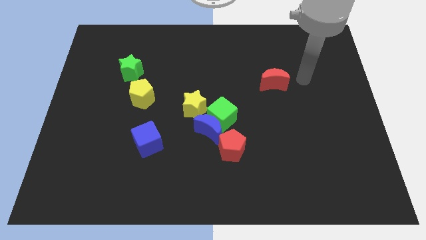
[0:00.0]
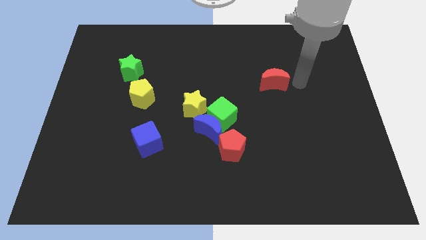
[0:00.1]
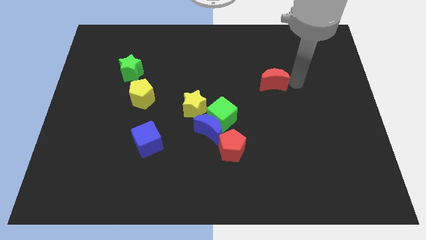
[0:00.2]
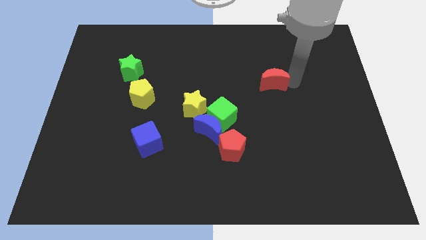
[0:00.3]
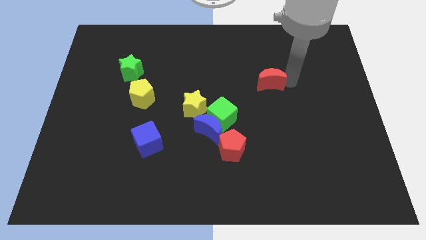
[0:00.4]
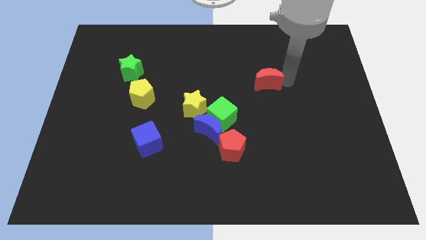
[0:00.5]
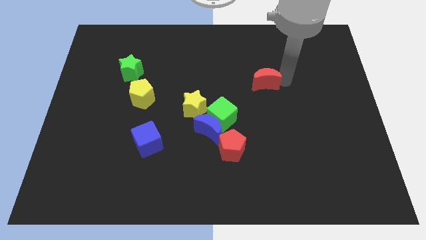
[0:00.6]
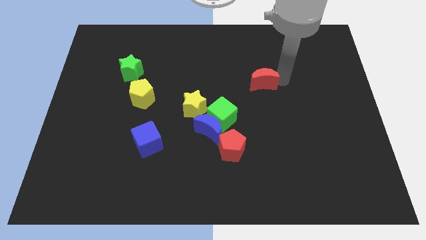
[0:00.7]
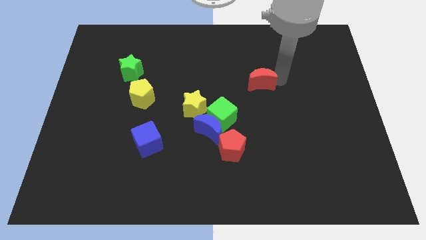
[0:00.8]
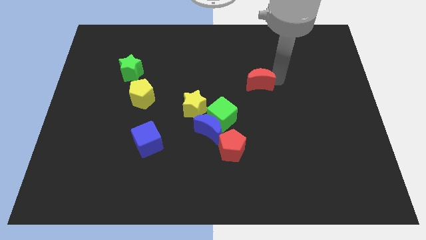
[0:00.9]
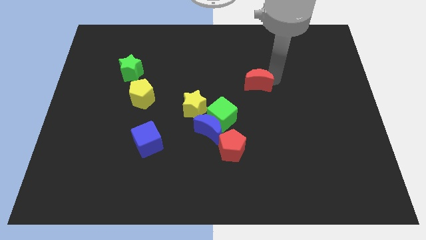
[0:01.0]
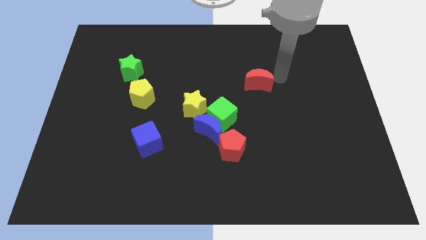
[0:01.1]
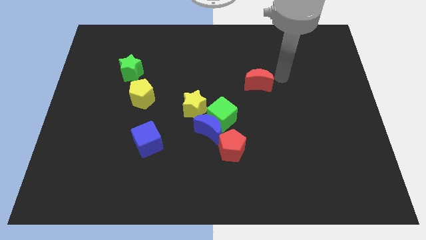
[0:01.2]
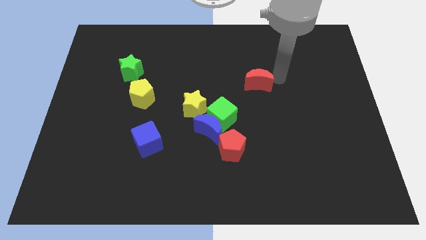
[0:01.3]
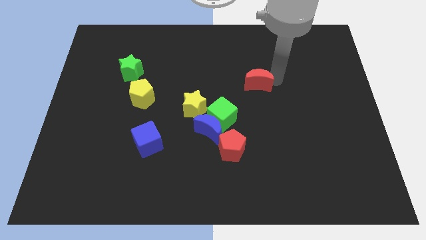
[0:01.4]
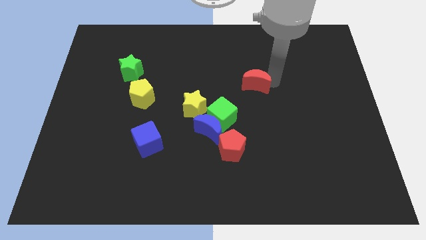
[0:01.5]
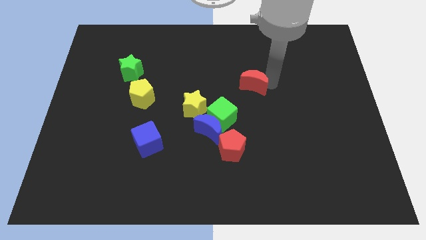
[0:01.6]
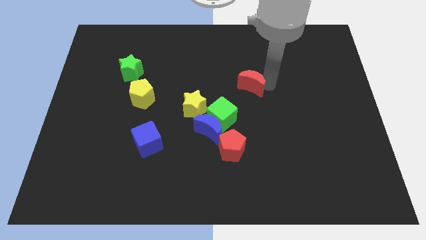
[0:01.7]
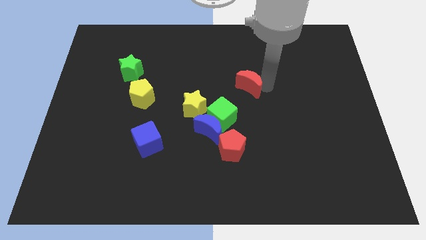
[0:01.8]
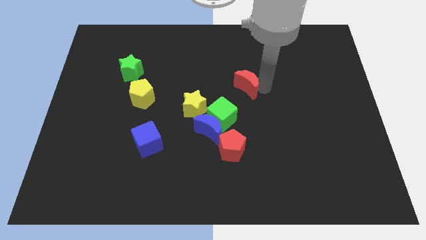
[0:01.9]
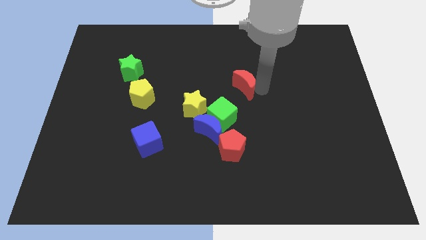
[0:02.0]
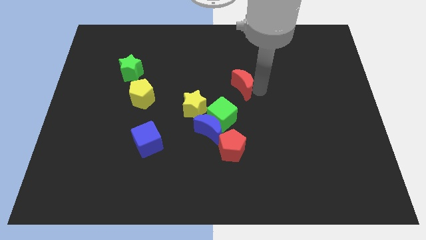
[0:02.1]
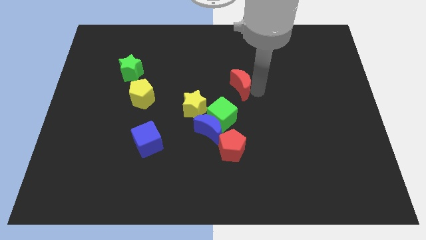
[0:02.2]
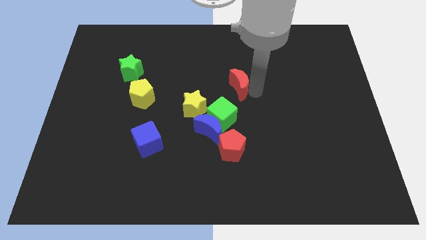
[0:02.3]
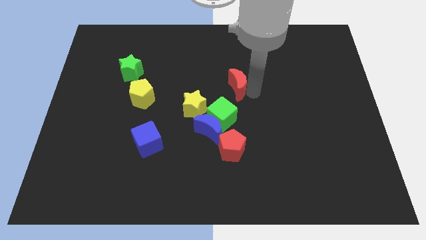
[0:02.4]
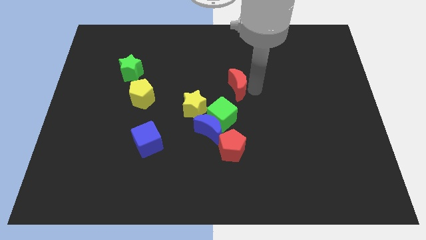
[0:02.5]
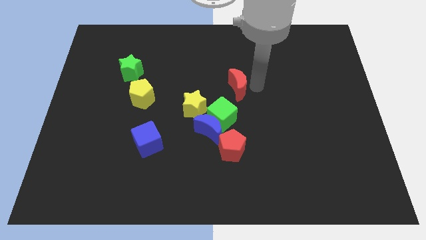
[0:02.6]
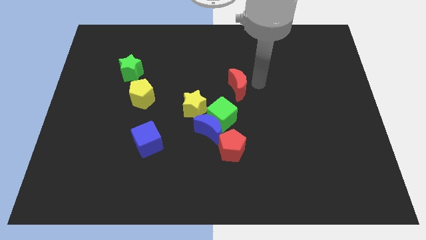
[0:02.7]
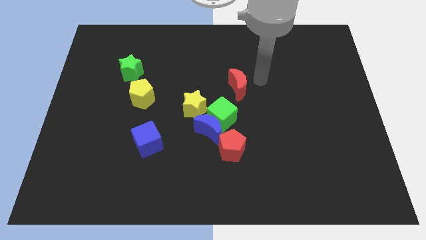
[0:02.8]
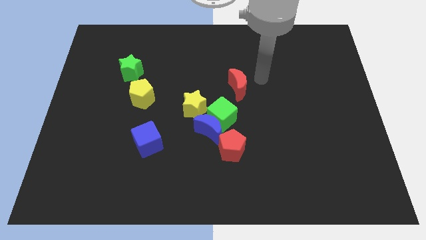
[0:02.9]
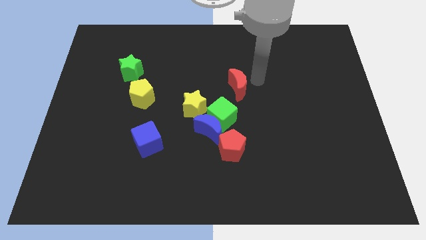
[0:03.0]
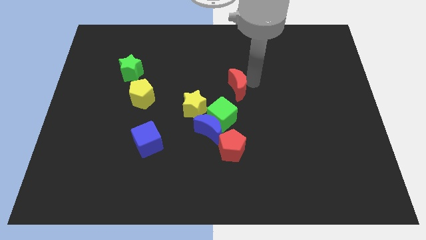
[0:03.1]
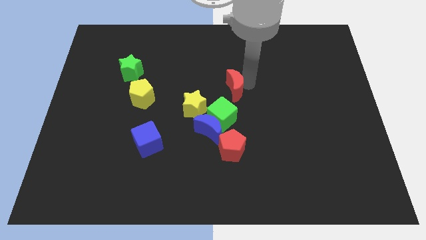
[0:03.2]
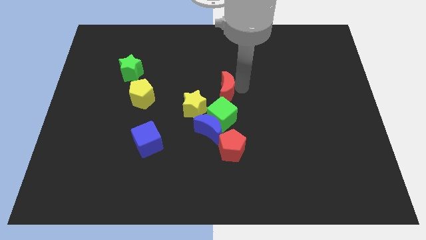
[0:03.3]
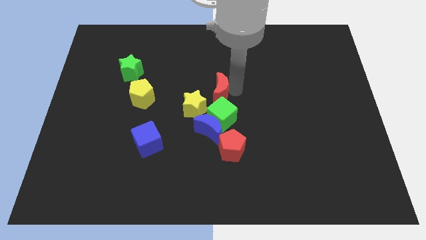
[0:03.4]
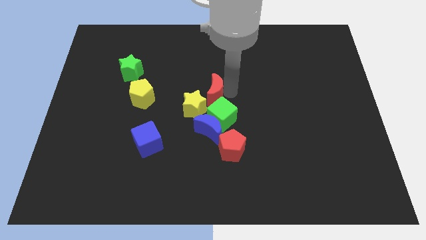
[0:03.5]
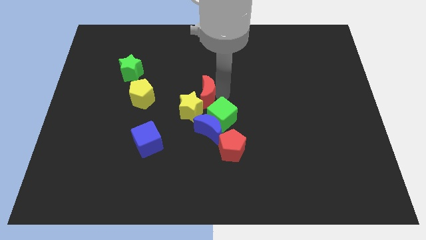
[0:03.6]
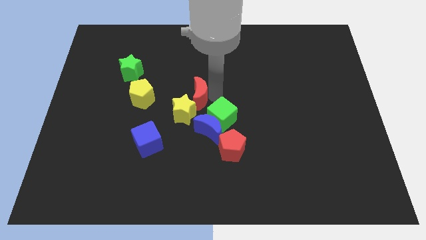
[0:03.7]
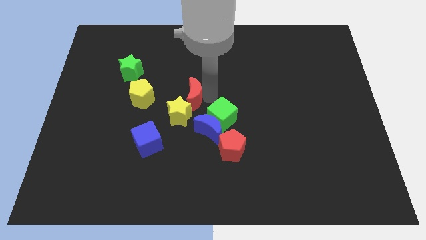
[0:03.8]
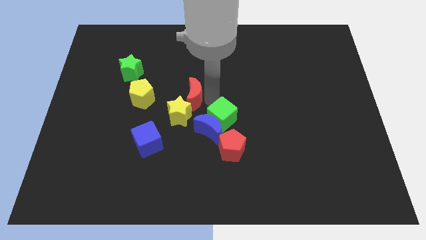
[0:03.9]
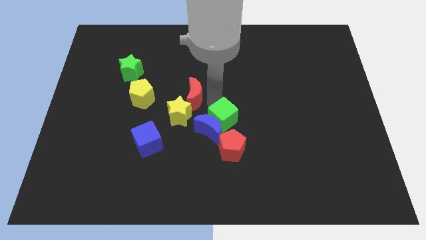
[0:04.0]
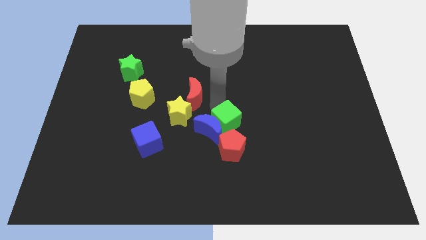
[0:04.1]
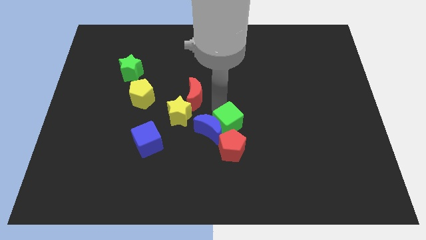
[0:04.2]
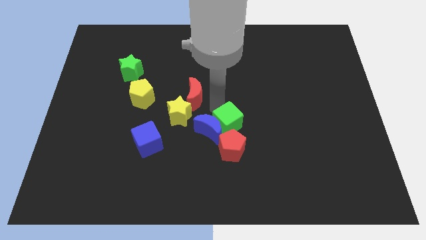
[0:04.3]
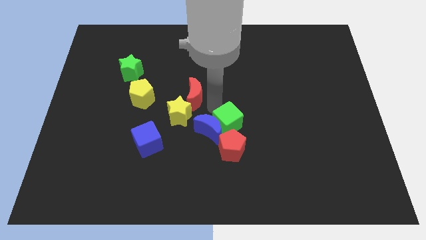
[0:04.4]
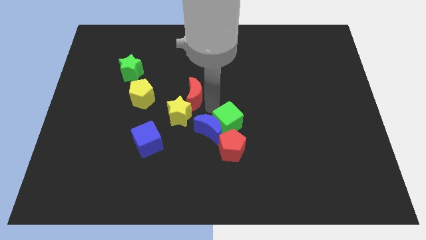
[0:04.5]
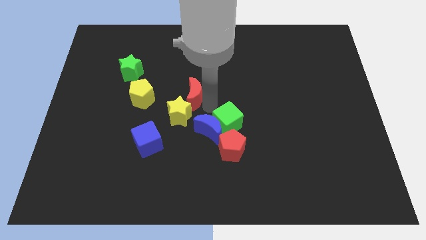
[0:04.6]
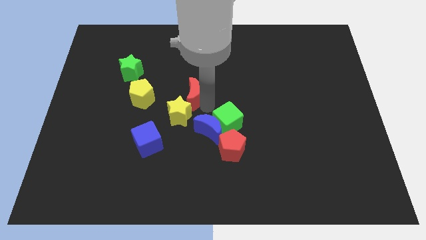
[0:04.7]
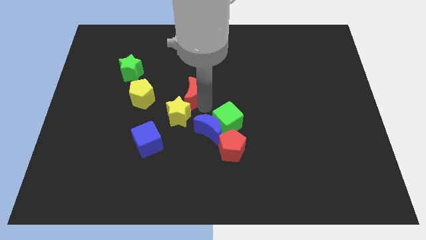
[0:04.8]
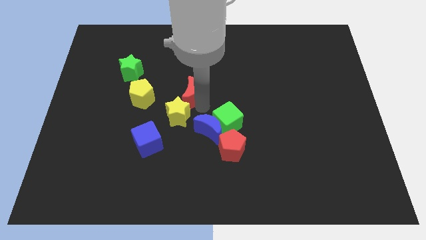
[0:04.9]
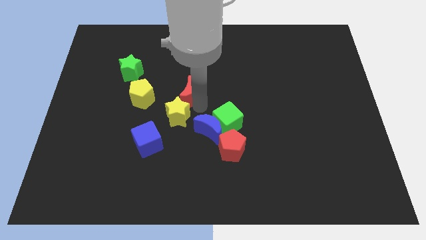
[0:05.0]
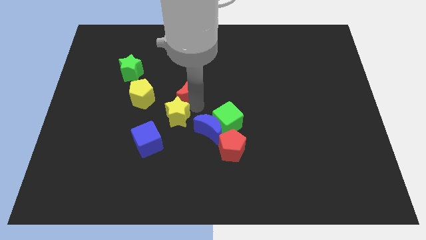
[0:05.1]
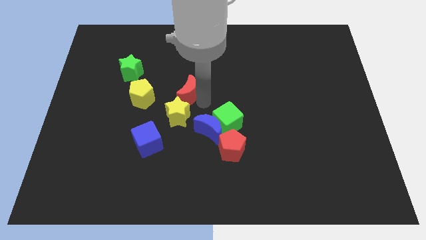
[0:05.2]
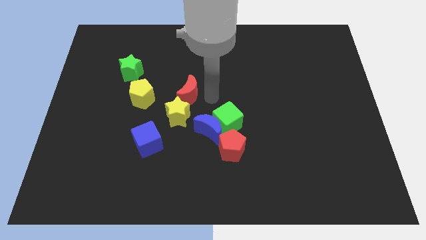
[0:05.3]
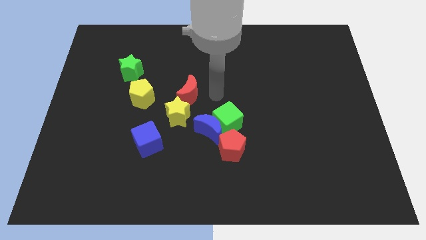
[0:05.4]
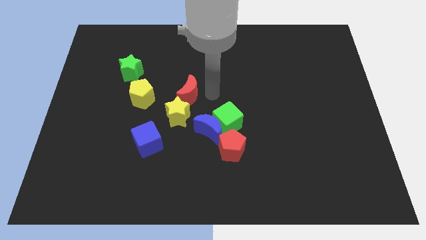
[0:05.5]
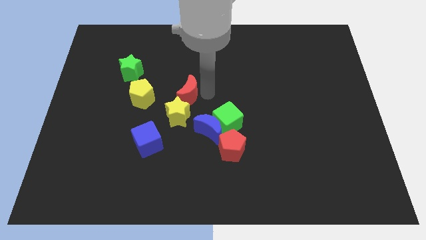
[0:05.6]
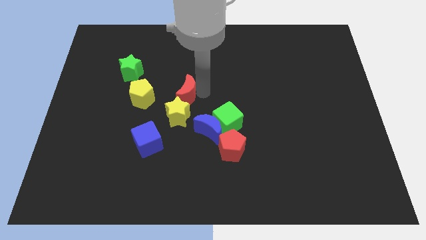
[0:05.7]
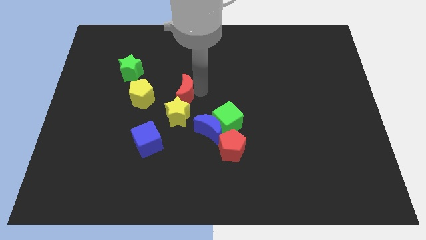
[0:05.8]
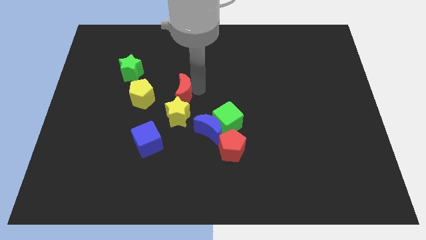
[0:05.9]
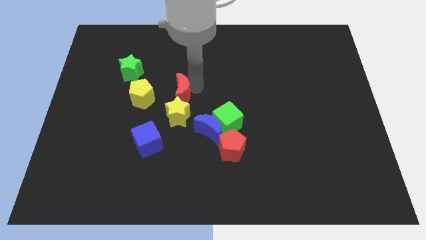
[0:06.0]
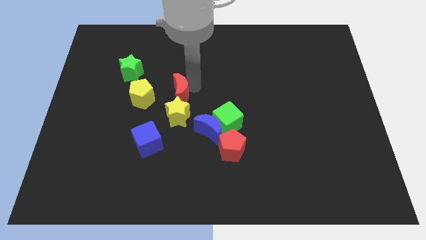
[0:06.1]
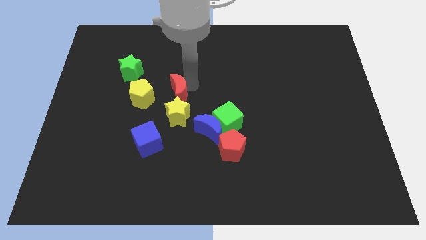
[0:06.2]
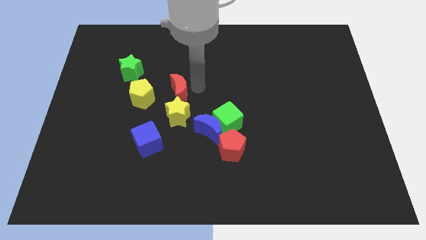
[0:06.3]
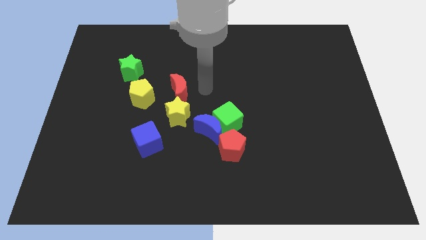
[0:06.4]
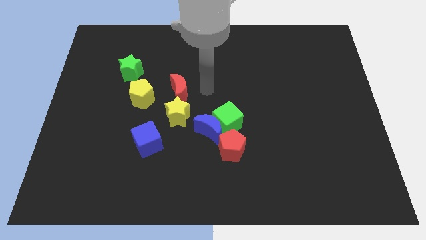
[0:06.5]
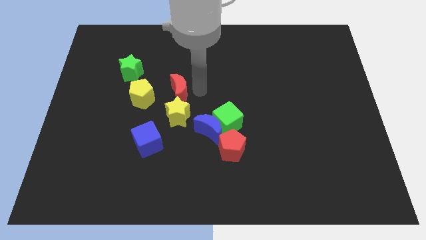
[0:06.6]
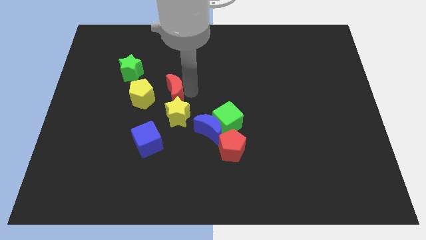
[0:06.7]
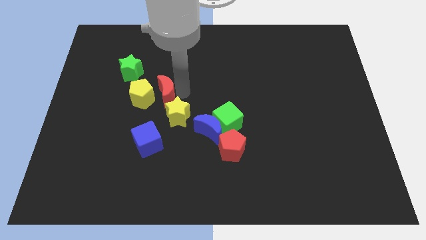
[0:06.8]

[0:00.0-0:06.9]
move the red moon to the yellow pentagon
